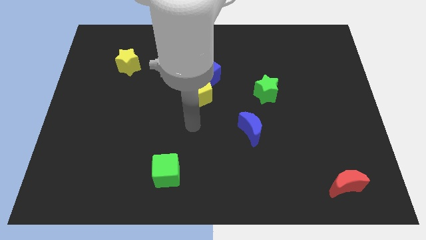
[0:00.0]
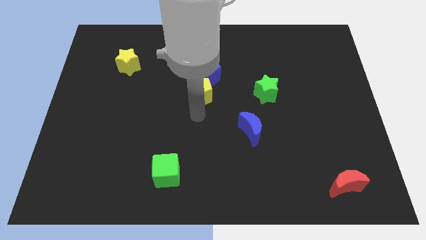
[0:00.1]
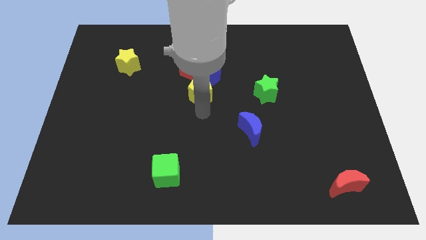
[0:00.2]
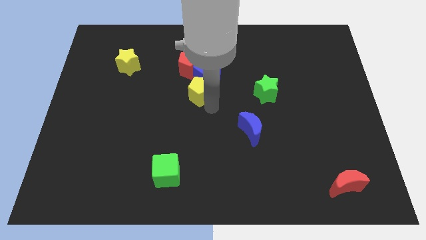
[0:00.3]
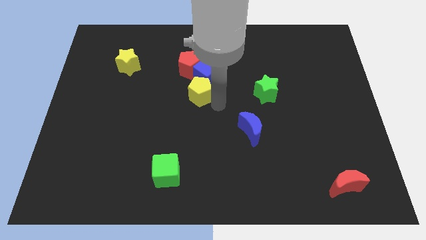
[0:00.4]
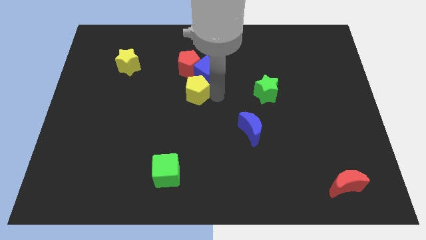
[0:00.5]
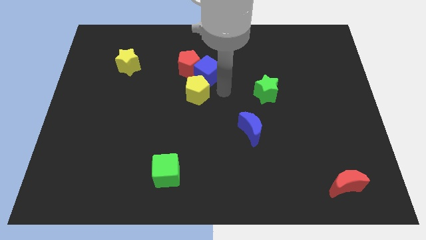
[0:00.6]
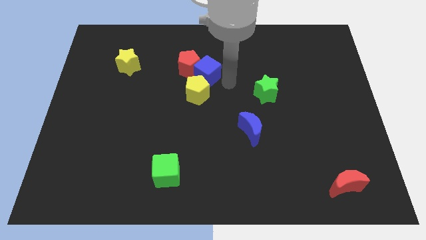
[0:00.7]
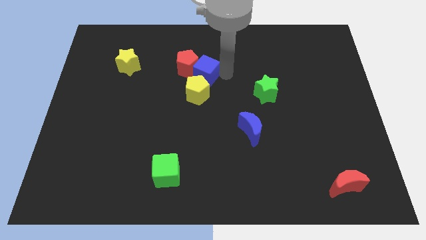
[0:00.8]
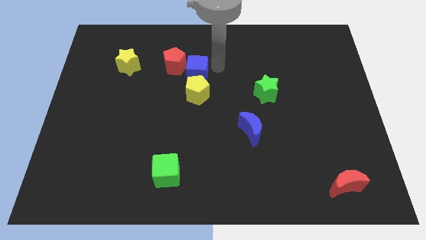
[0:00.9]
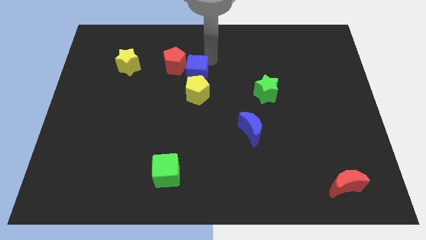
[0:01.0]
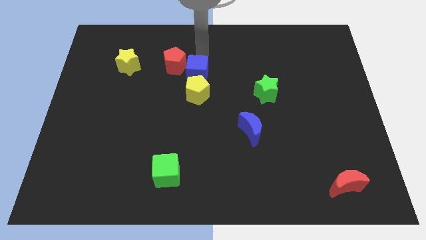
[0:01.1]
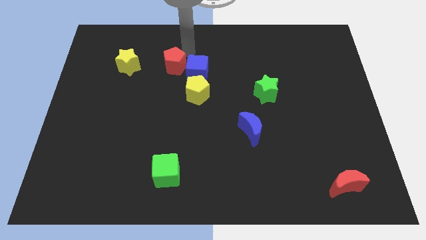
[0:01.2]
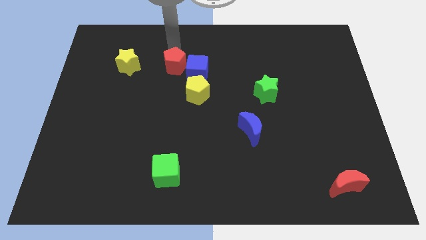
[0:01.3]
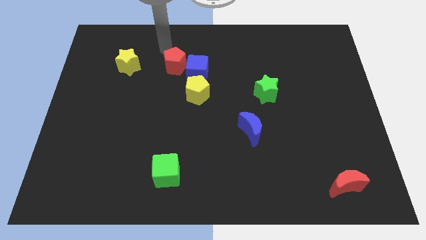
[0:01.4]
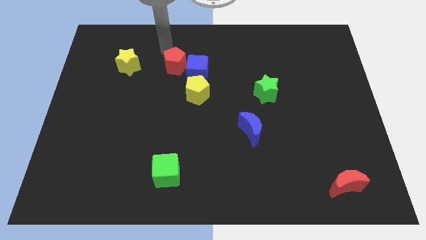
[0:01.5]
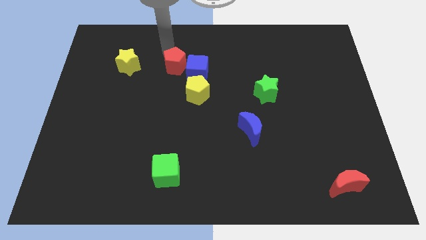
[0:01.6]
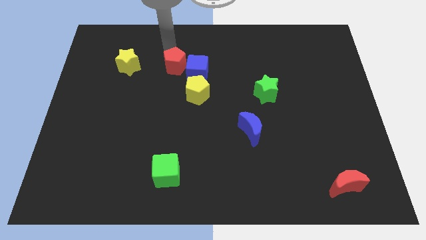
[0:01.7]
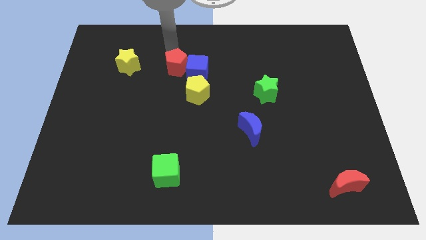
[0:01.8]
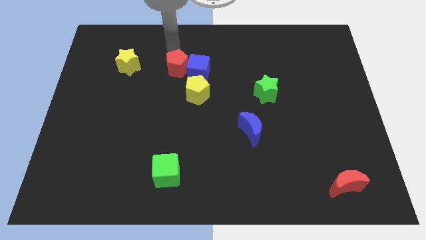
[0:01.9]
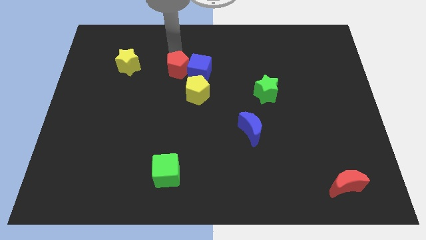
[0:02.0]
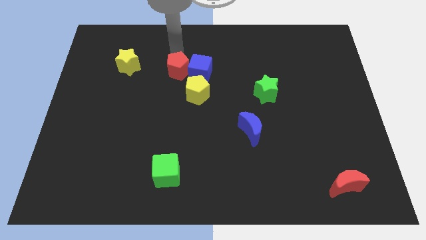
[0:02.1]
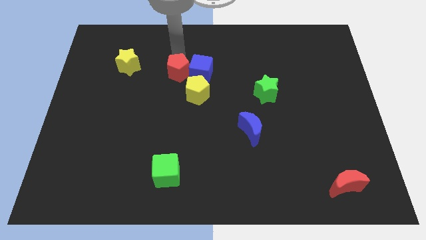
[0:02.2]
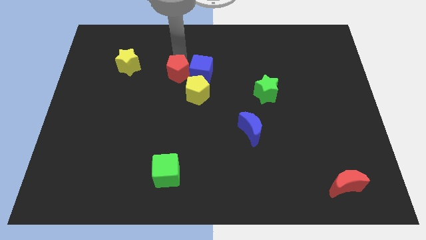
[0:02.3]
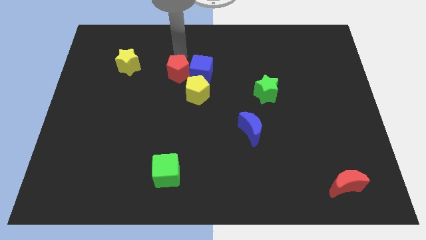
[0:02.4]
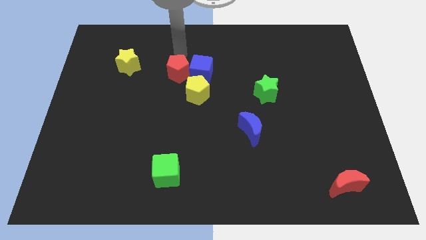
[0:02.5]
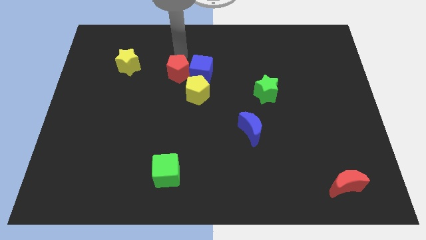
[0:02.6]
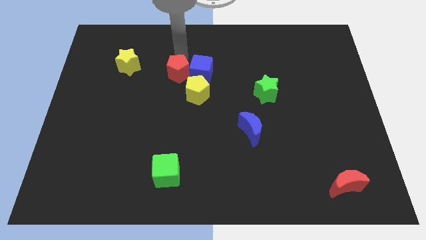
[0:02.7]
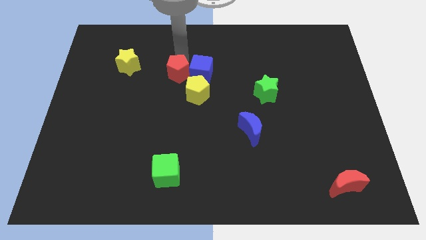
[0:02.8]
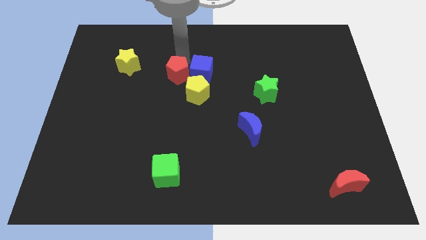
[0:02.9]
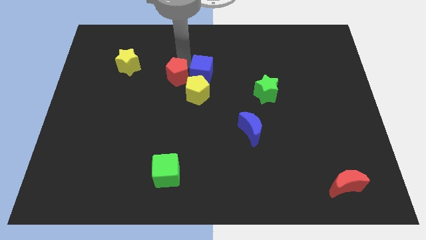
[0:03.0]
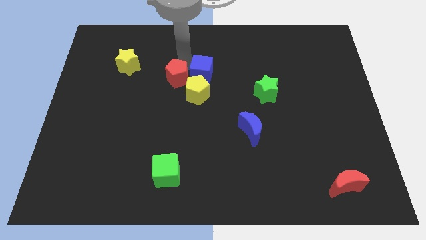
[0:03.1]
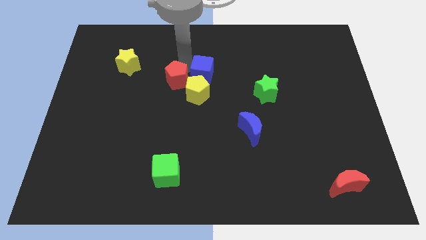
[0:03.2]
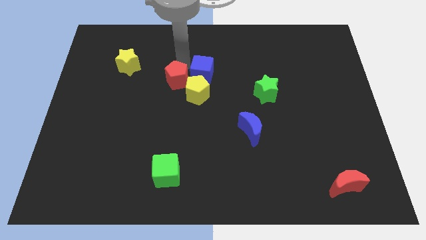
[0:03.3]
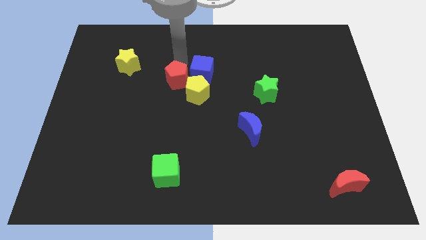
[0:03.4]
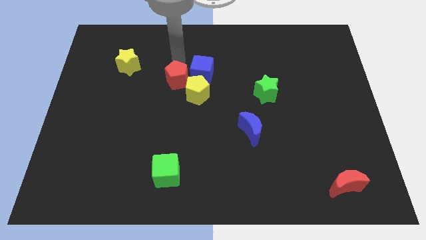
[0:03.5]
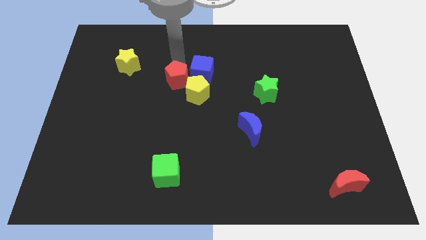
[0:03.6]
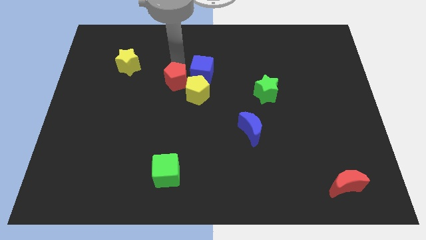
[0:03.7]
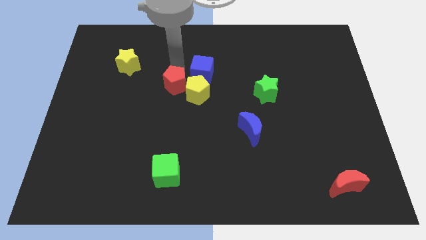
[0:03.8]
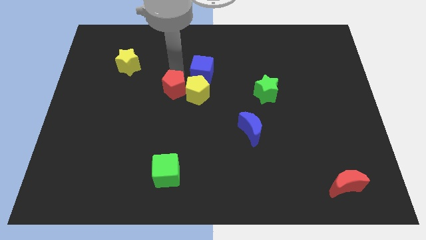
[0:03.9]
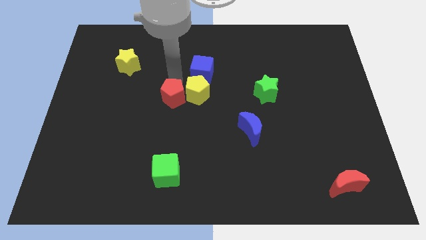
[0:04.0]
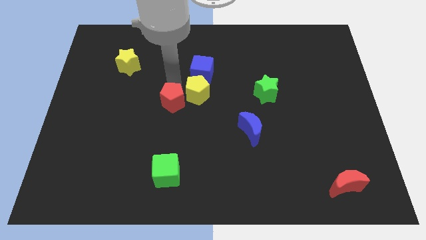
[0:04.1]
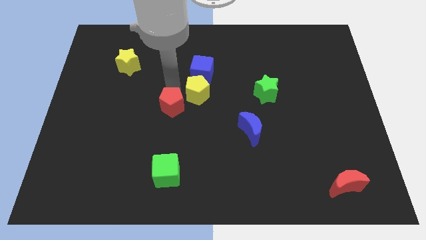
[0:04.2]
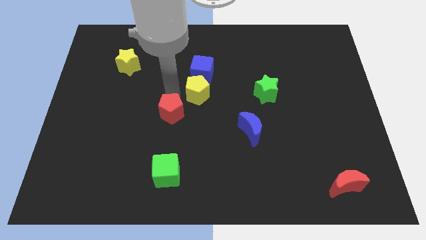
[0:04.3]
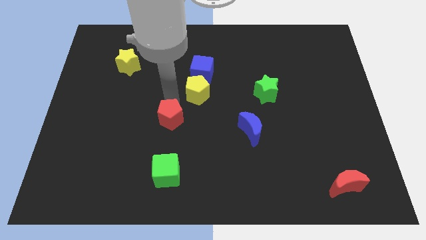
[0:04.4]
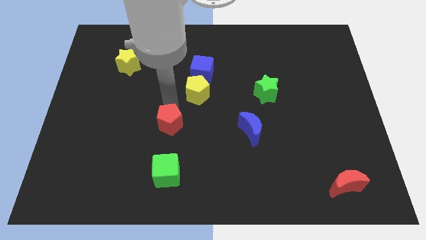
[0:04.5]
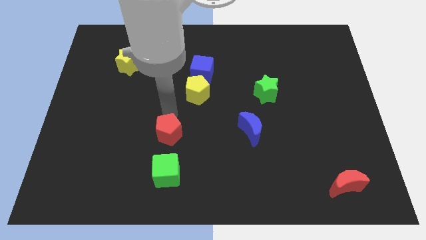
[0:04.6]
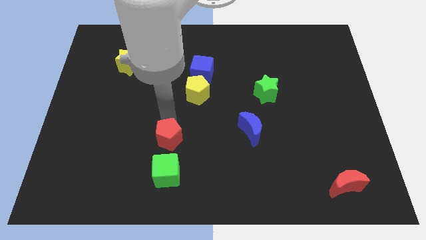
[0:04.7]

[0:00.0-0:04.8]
push the red pentagon down

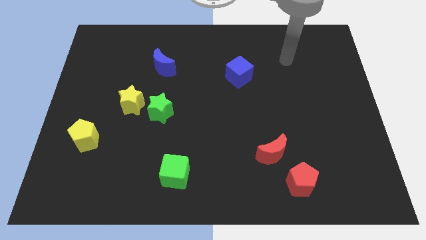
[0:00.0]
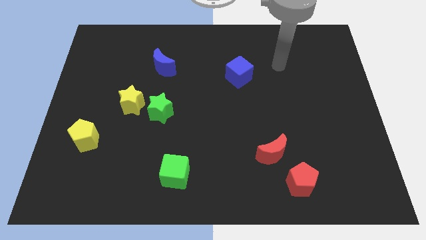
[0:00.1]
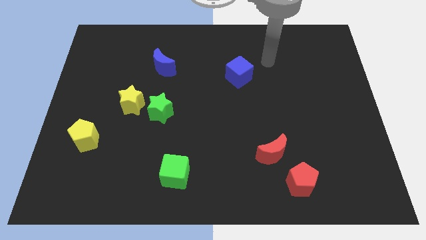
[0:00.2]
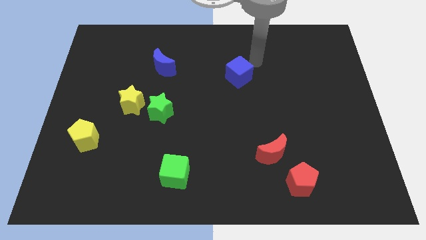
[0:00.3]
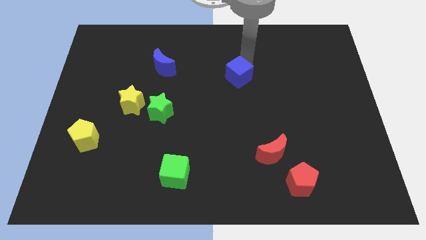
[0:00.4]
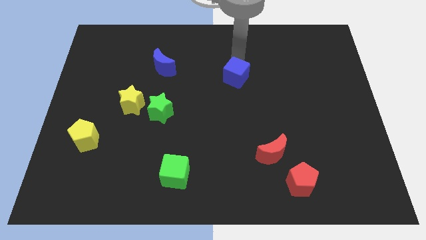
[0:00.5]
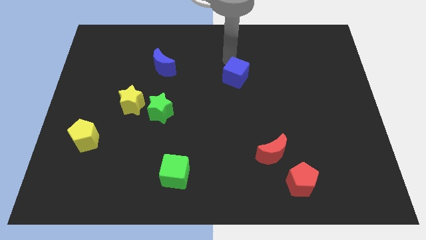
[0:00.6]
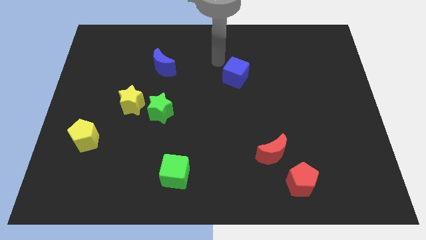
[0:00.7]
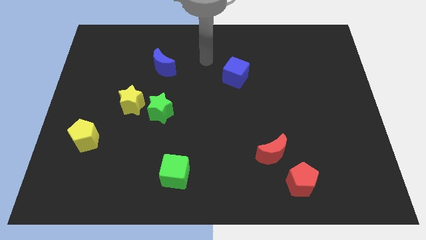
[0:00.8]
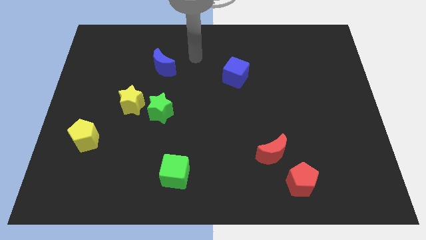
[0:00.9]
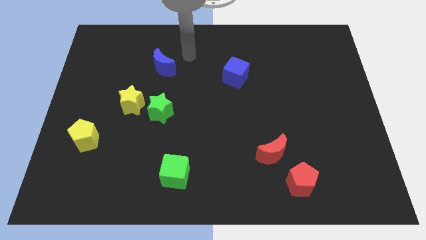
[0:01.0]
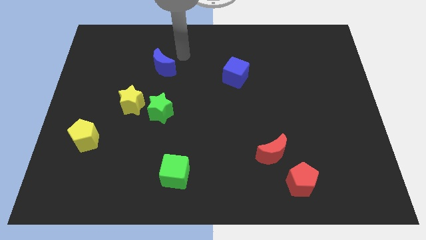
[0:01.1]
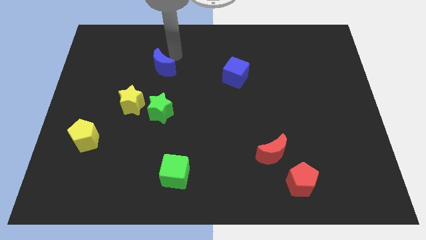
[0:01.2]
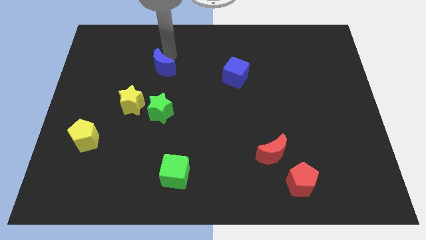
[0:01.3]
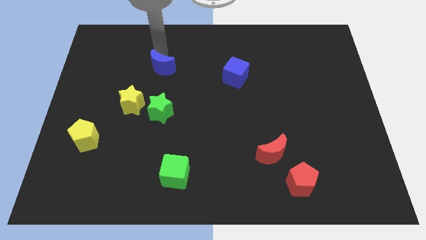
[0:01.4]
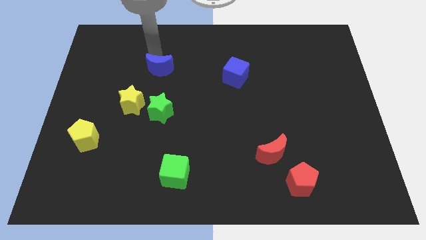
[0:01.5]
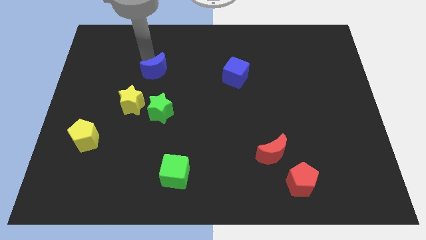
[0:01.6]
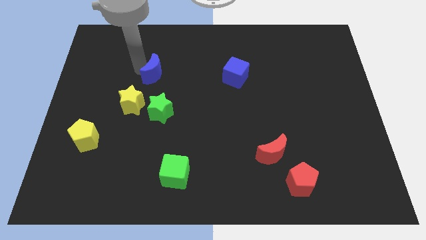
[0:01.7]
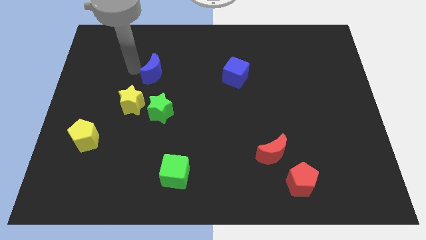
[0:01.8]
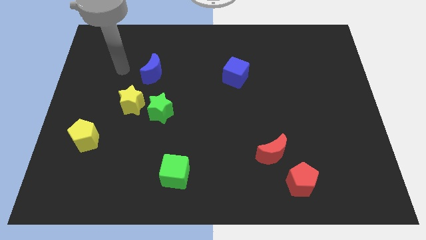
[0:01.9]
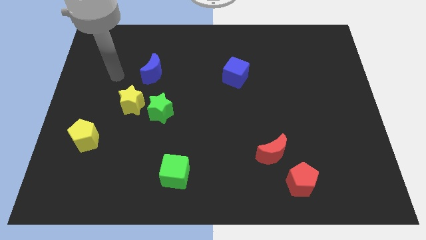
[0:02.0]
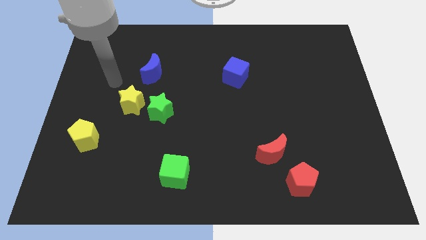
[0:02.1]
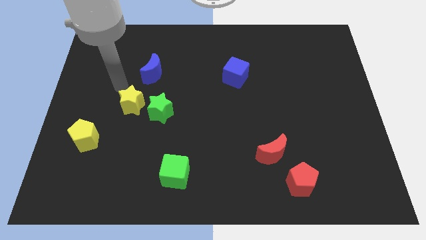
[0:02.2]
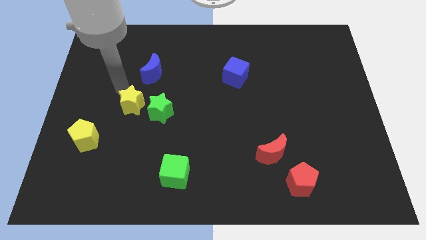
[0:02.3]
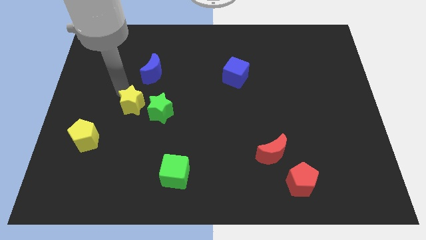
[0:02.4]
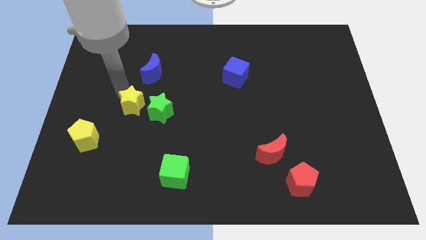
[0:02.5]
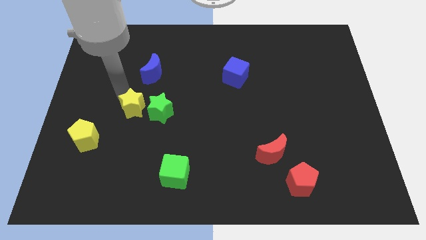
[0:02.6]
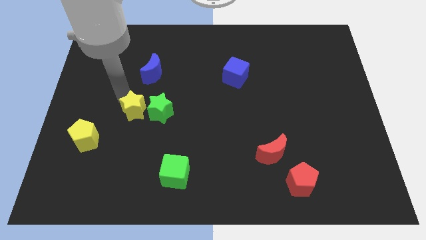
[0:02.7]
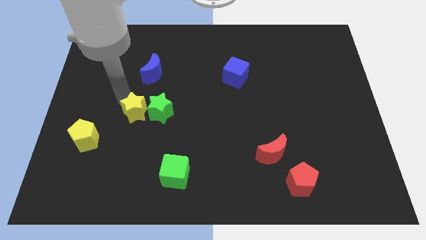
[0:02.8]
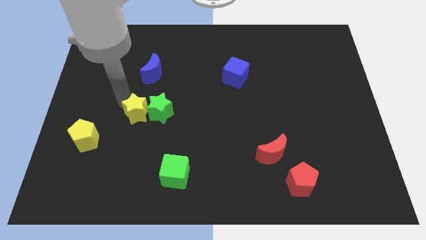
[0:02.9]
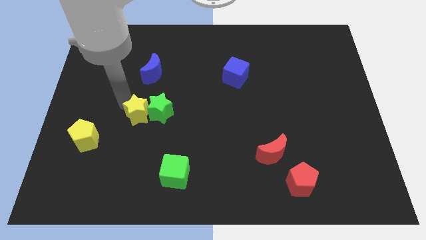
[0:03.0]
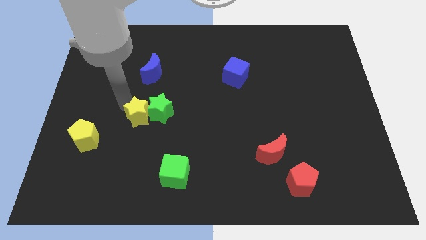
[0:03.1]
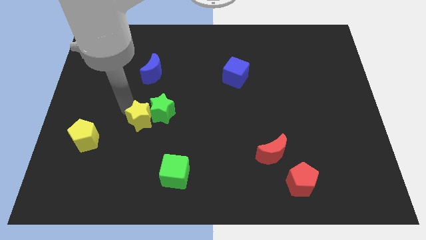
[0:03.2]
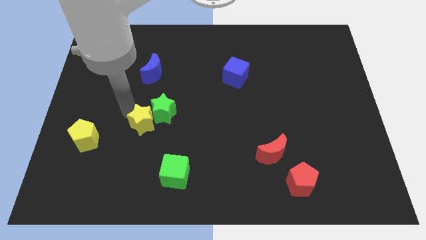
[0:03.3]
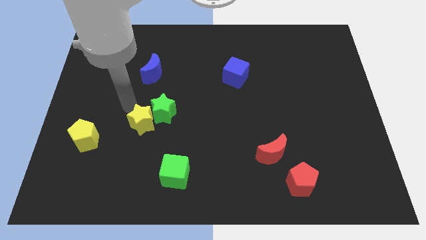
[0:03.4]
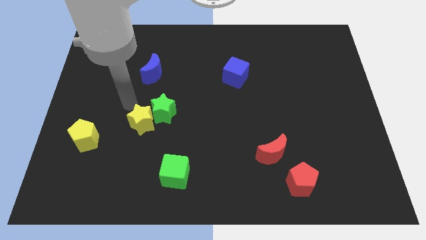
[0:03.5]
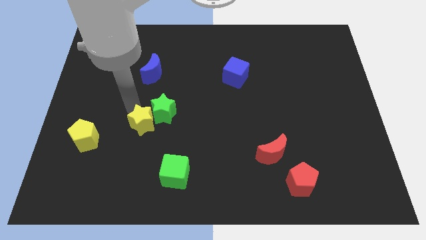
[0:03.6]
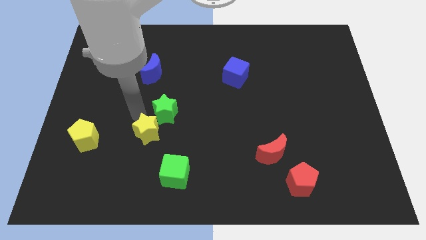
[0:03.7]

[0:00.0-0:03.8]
push the yellow star downwards and then right somewhat
